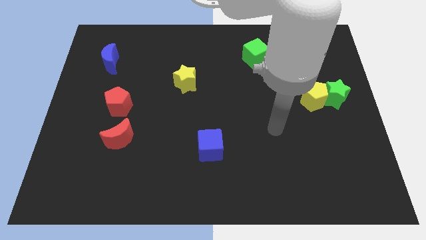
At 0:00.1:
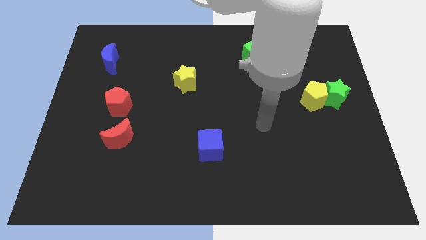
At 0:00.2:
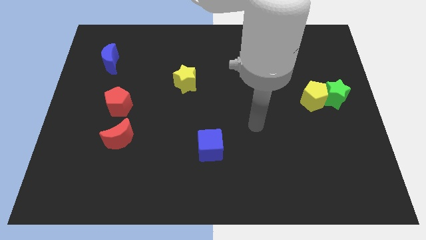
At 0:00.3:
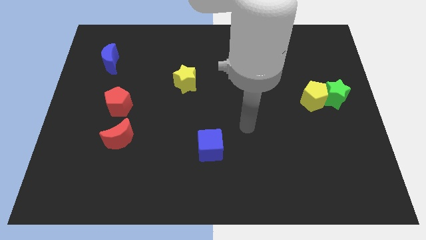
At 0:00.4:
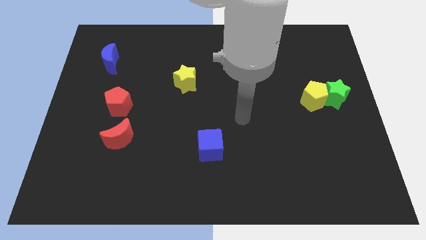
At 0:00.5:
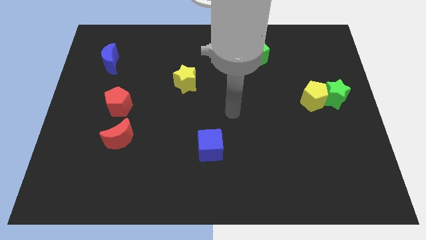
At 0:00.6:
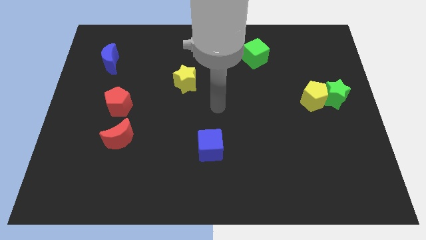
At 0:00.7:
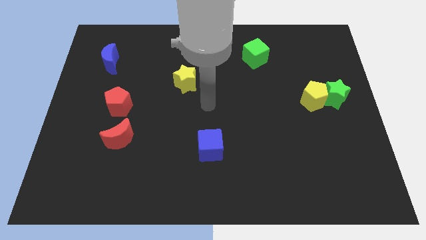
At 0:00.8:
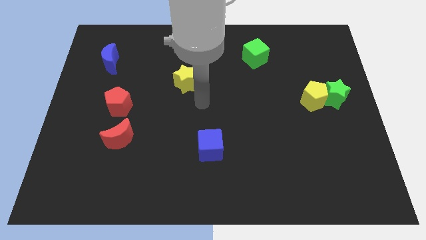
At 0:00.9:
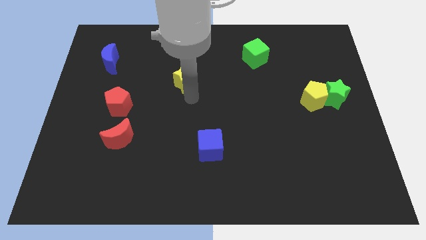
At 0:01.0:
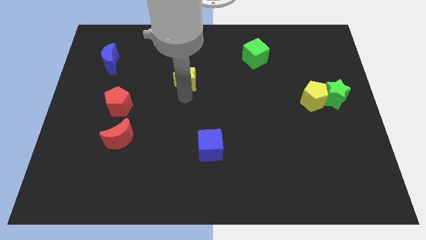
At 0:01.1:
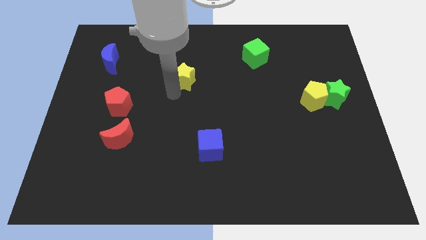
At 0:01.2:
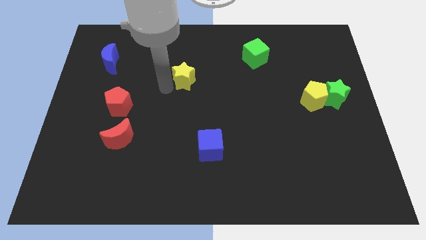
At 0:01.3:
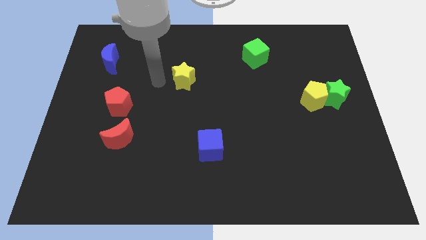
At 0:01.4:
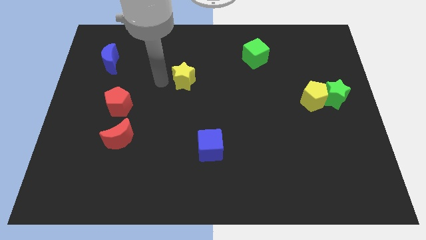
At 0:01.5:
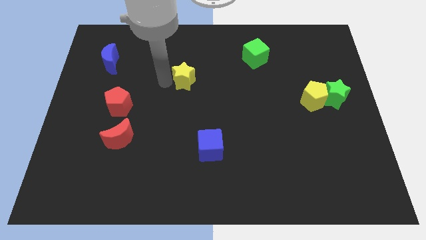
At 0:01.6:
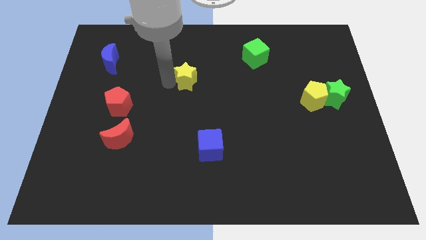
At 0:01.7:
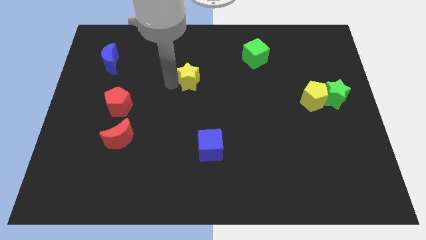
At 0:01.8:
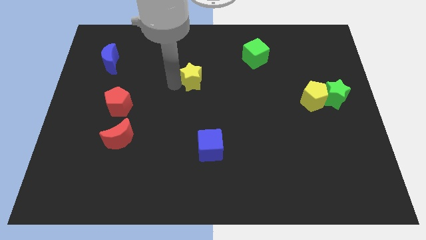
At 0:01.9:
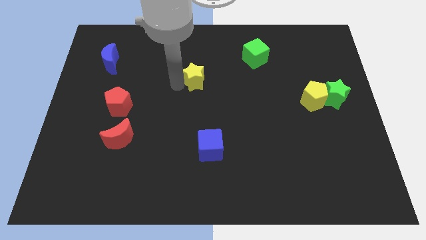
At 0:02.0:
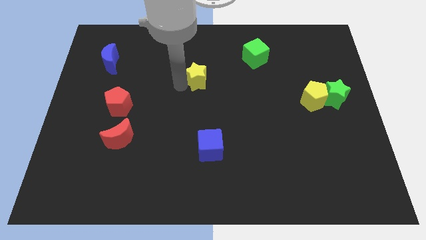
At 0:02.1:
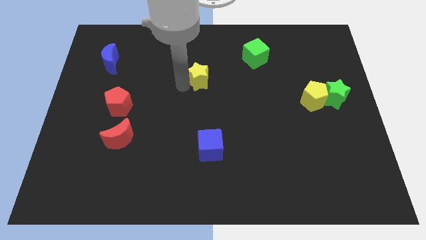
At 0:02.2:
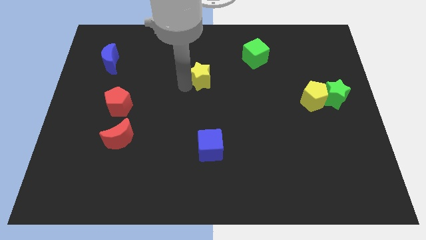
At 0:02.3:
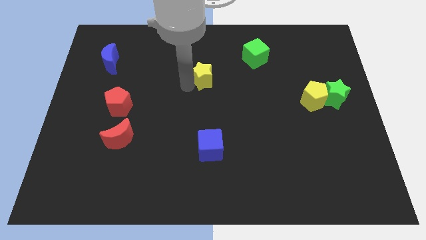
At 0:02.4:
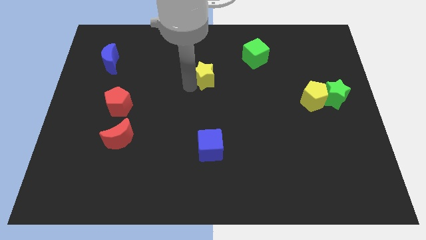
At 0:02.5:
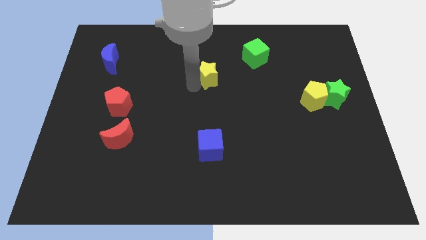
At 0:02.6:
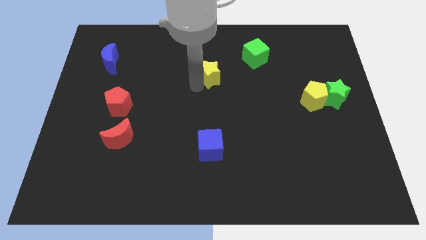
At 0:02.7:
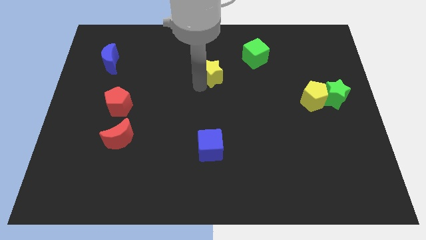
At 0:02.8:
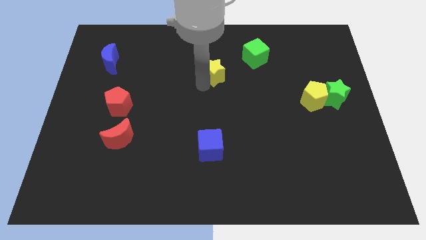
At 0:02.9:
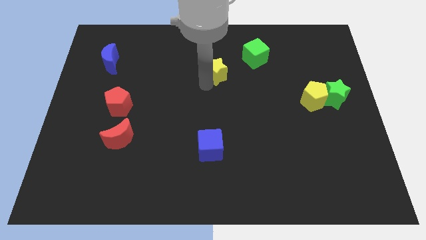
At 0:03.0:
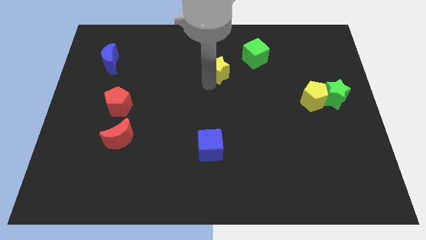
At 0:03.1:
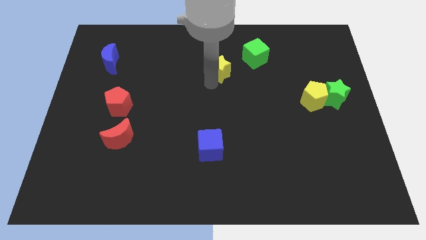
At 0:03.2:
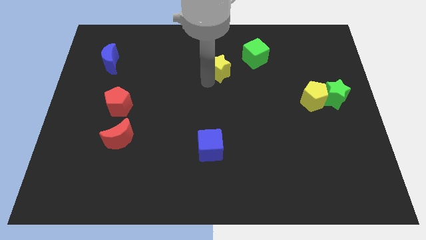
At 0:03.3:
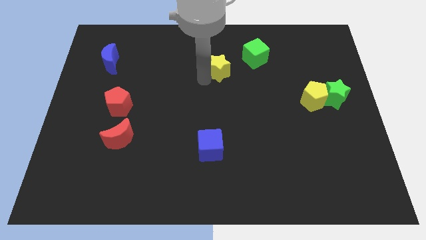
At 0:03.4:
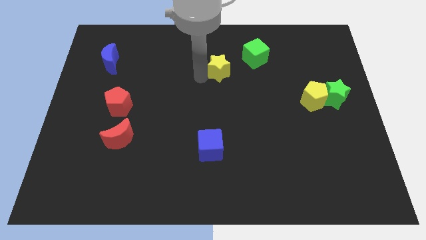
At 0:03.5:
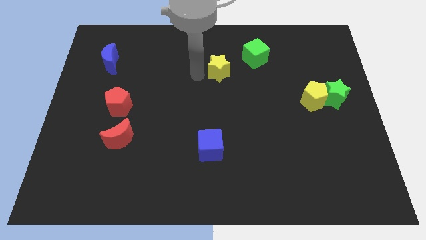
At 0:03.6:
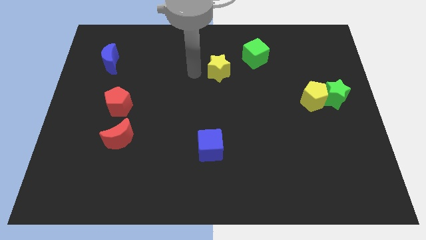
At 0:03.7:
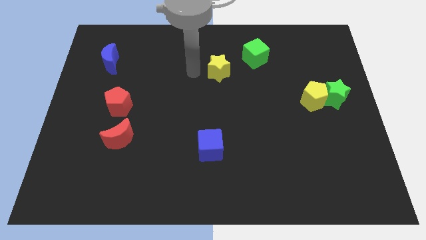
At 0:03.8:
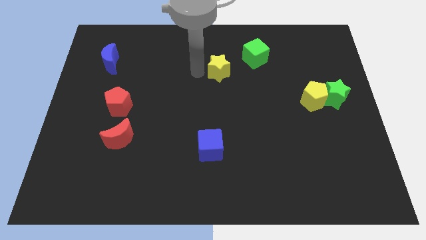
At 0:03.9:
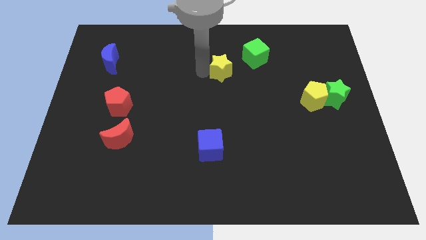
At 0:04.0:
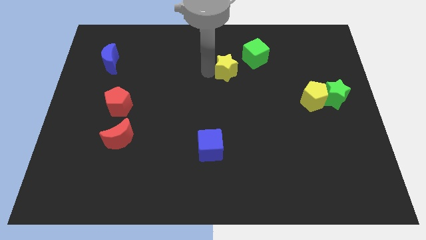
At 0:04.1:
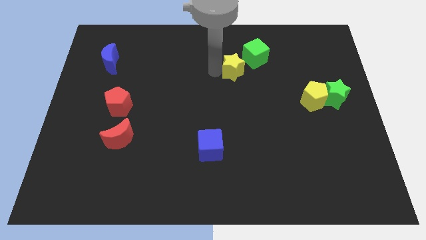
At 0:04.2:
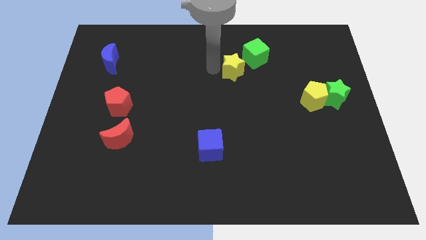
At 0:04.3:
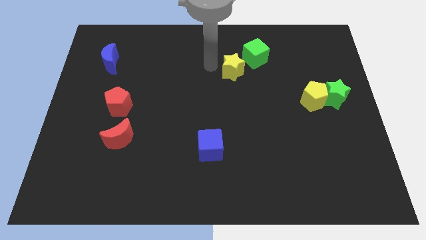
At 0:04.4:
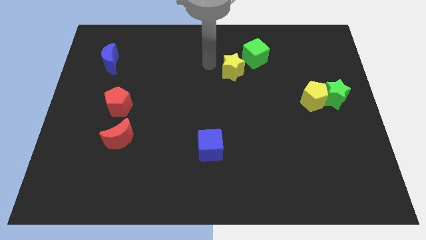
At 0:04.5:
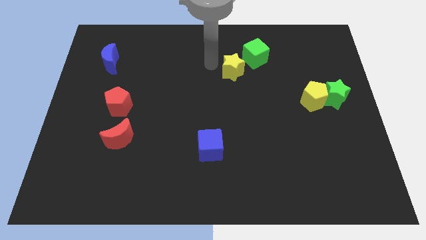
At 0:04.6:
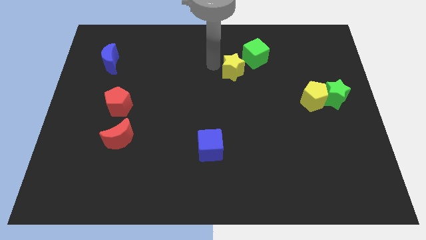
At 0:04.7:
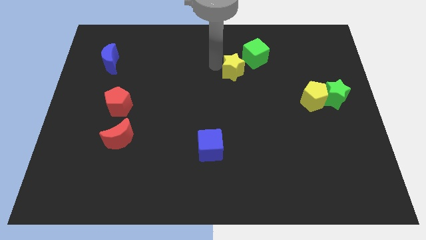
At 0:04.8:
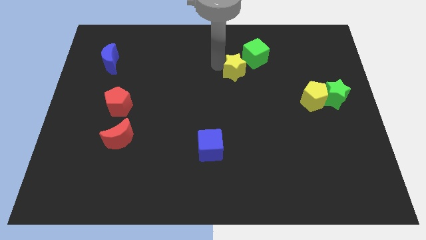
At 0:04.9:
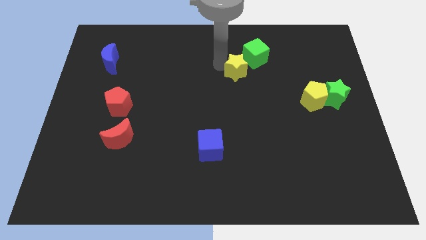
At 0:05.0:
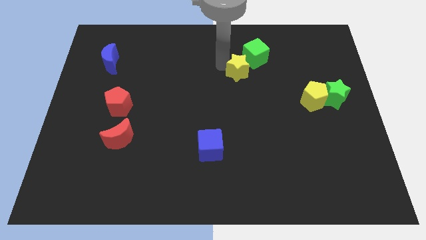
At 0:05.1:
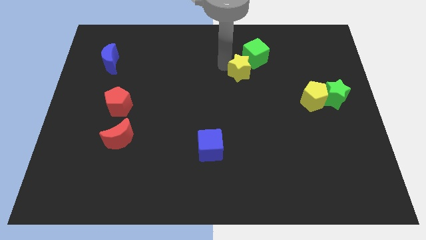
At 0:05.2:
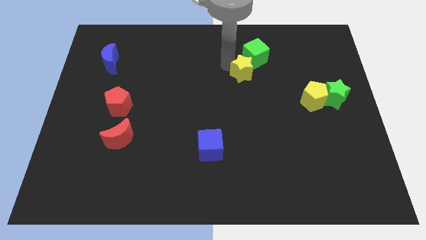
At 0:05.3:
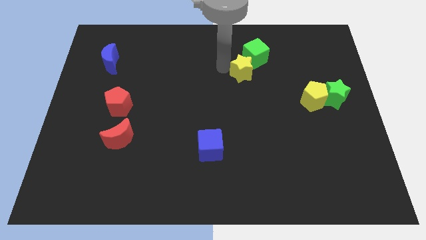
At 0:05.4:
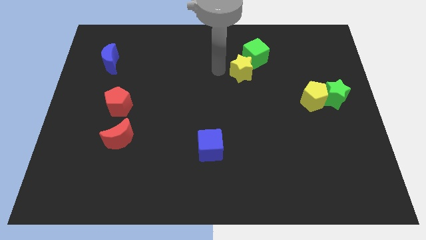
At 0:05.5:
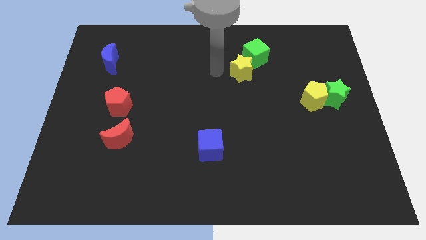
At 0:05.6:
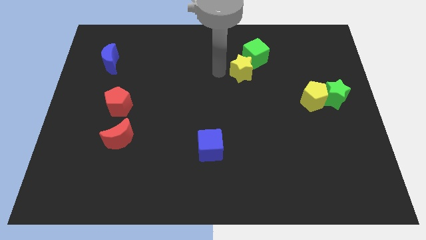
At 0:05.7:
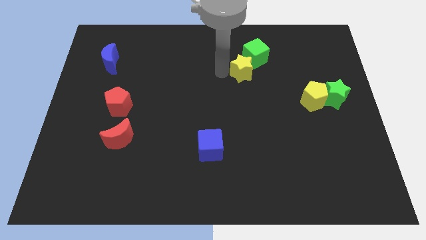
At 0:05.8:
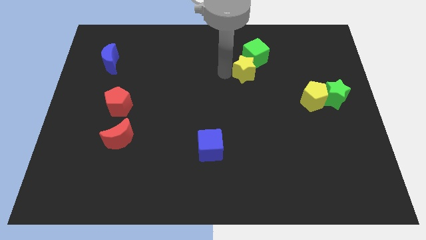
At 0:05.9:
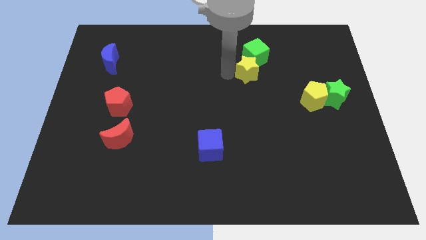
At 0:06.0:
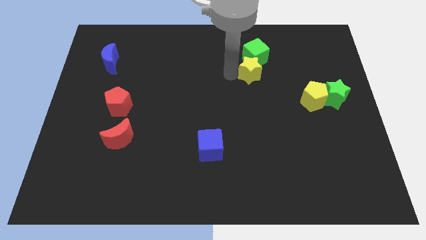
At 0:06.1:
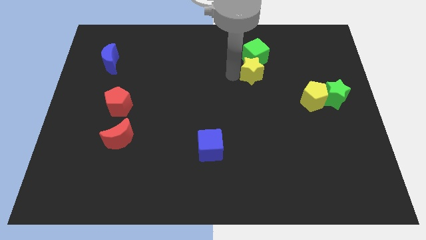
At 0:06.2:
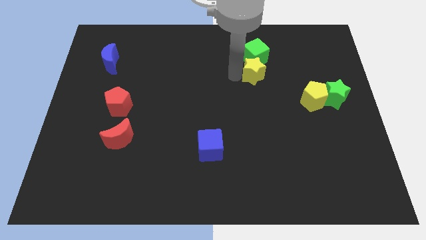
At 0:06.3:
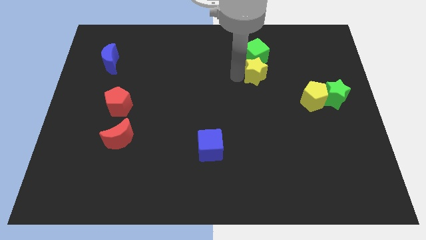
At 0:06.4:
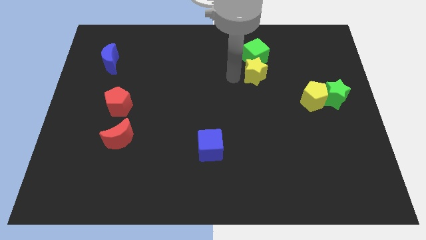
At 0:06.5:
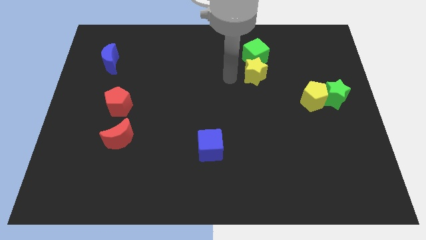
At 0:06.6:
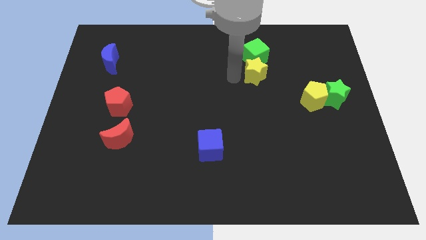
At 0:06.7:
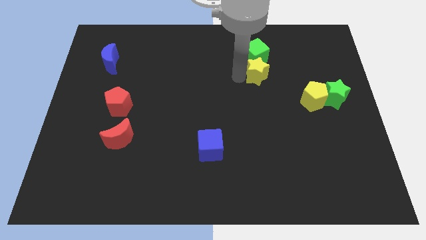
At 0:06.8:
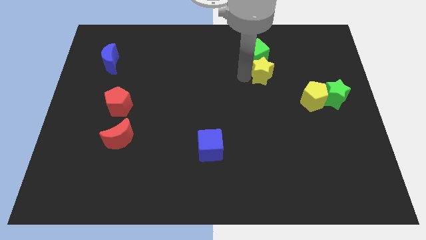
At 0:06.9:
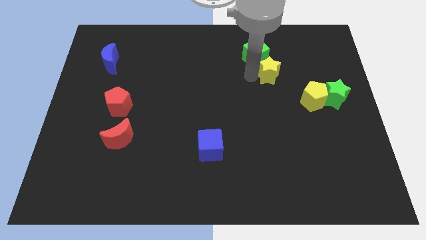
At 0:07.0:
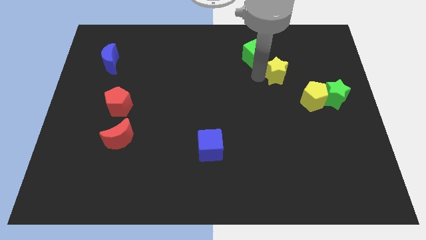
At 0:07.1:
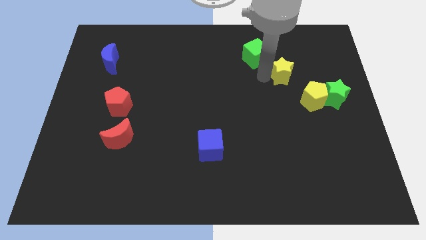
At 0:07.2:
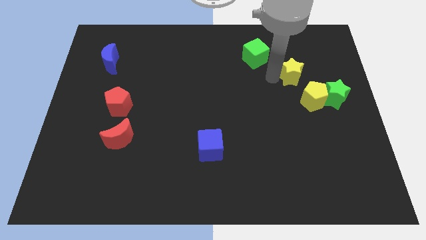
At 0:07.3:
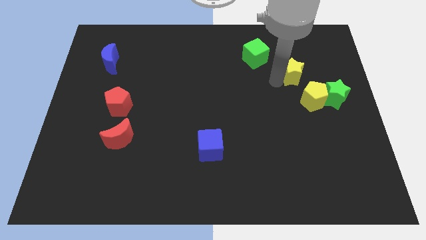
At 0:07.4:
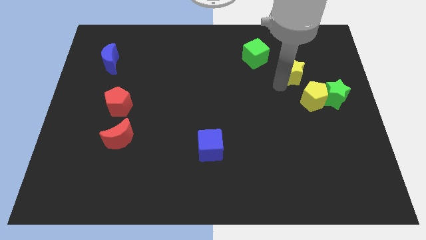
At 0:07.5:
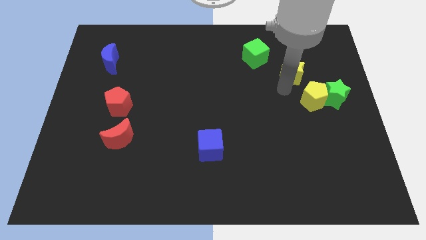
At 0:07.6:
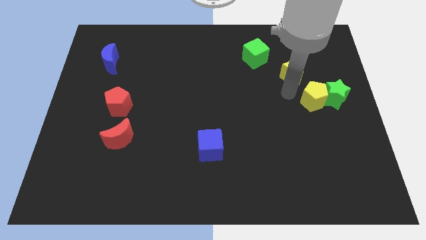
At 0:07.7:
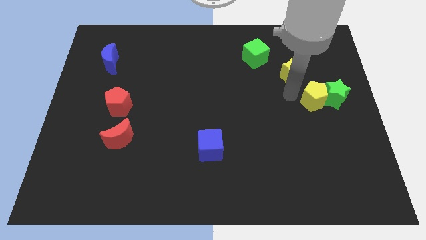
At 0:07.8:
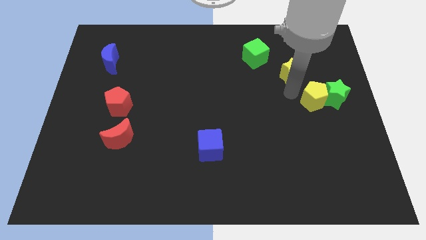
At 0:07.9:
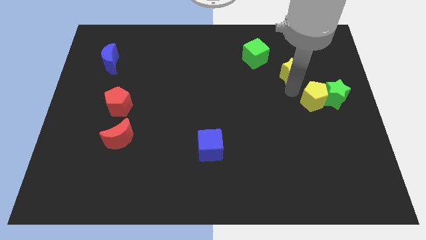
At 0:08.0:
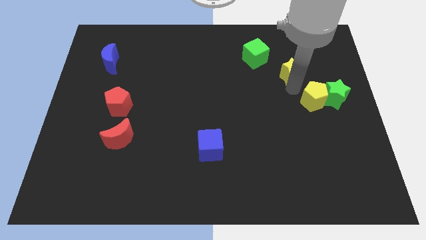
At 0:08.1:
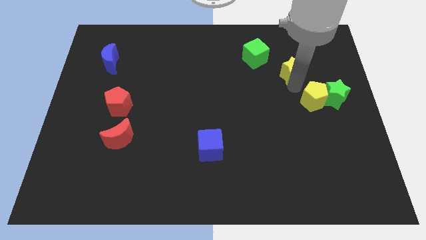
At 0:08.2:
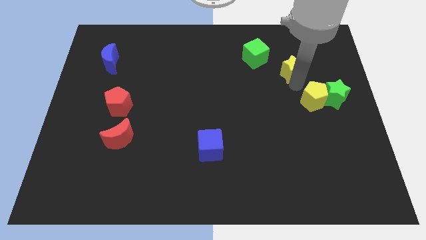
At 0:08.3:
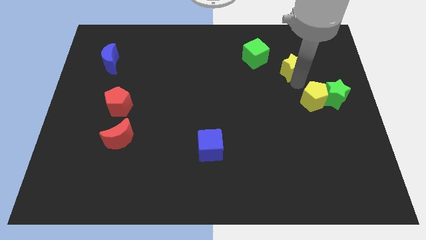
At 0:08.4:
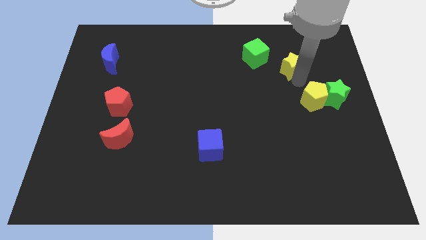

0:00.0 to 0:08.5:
slide the yellow star right of the green cube
